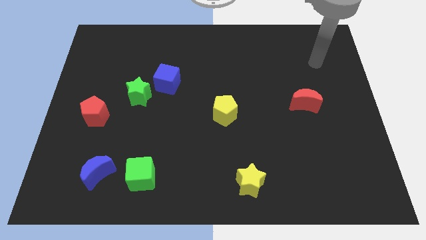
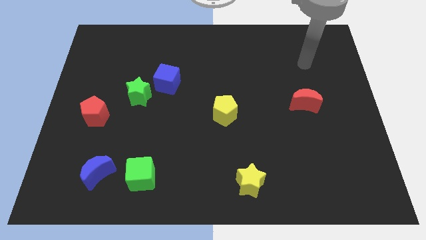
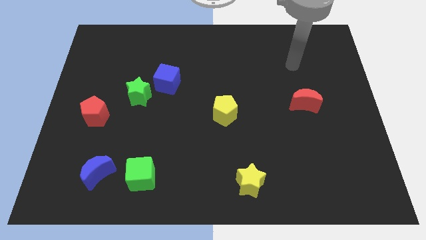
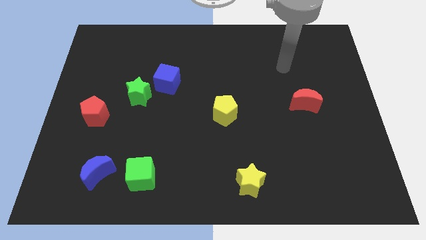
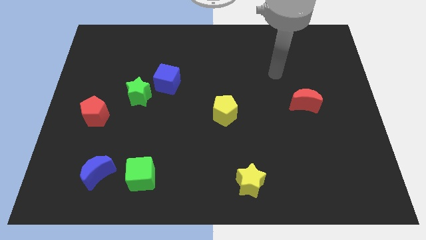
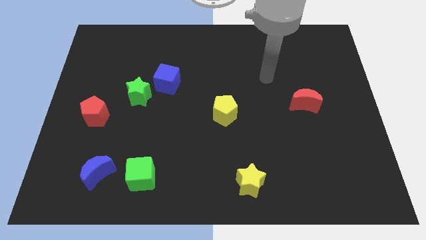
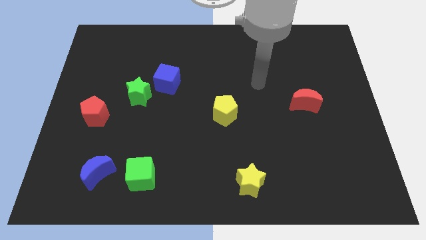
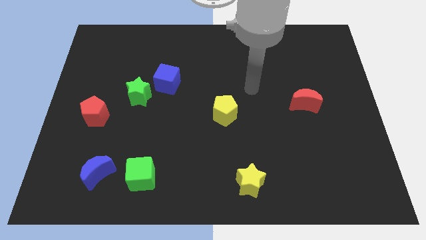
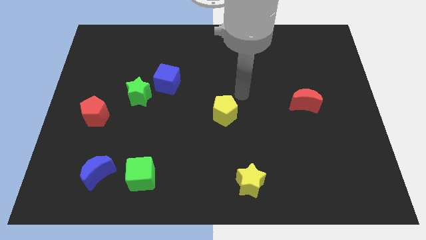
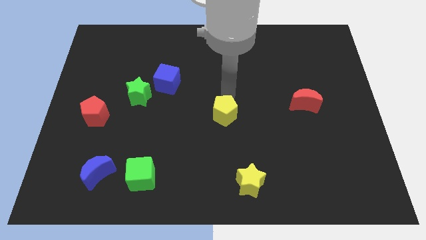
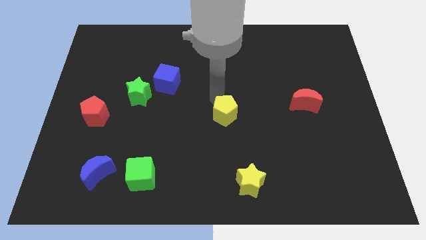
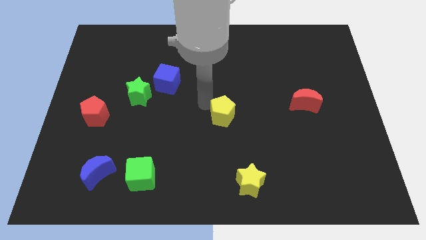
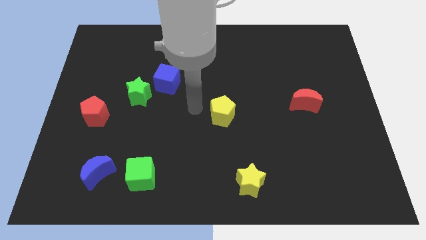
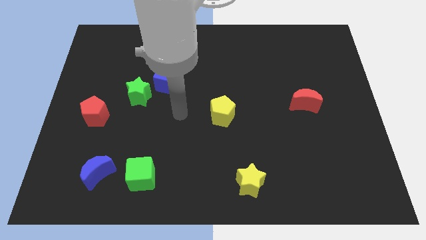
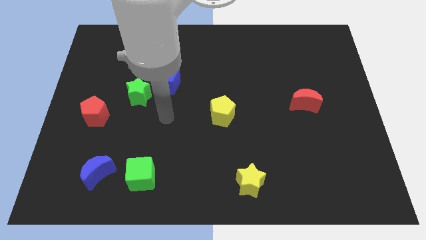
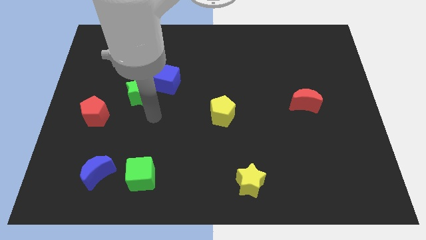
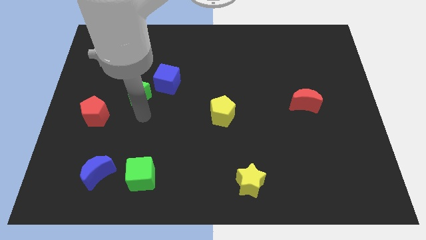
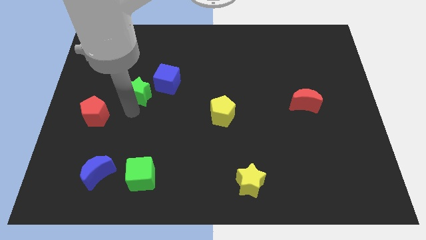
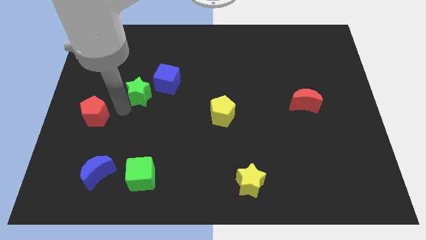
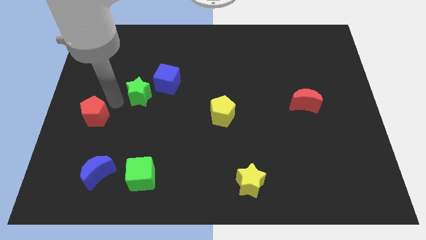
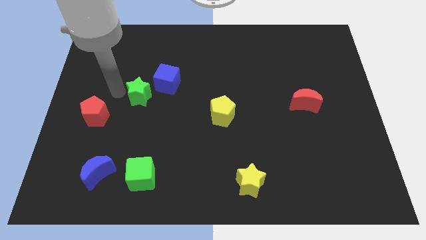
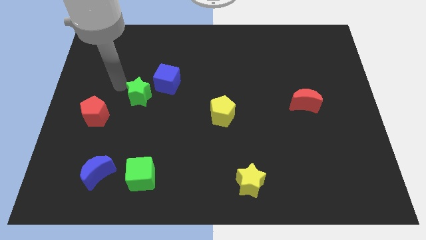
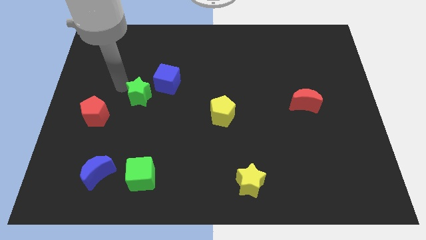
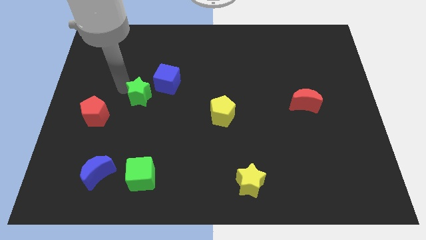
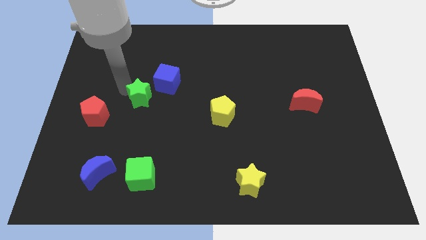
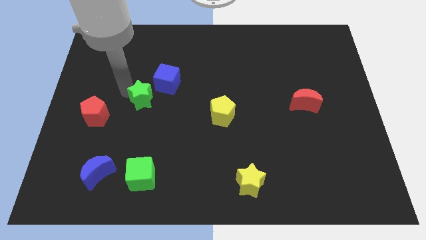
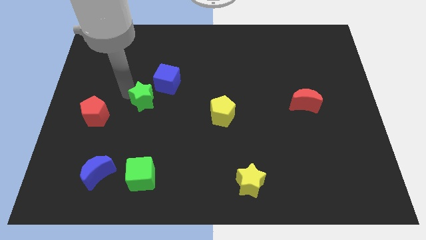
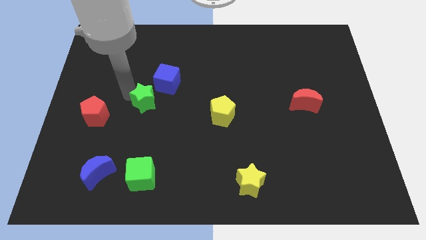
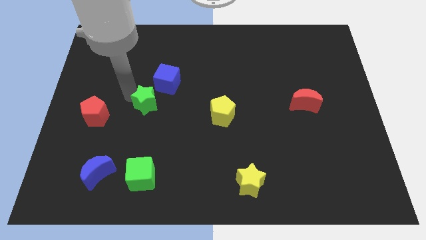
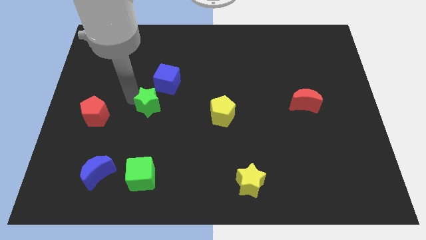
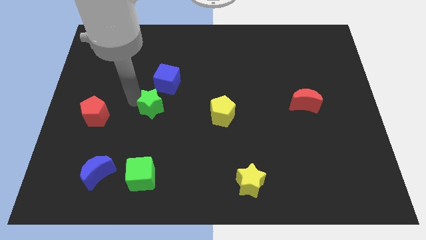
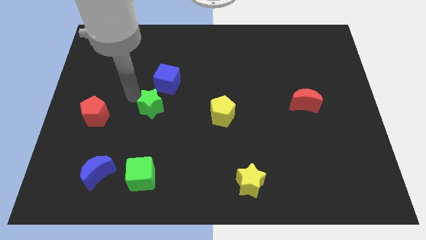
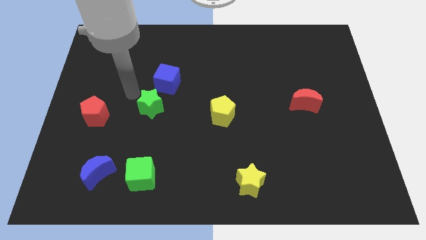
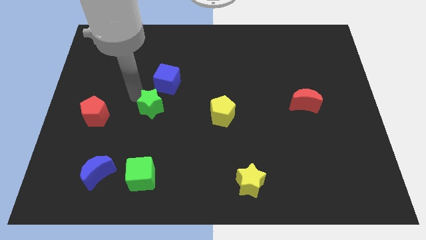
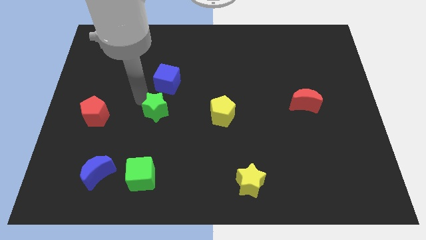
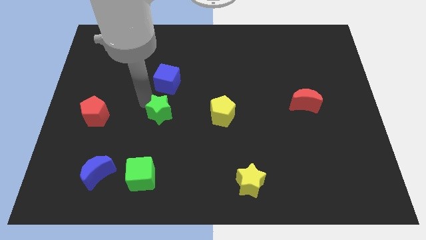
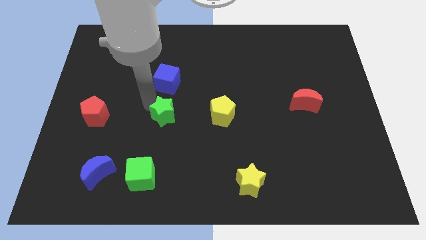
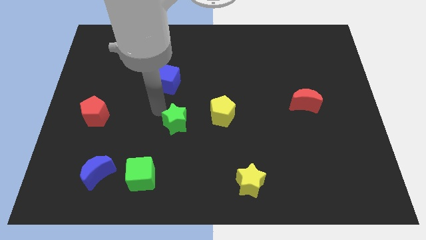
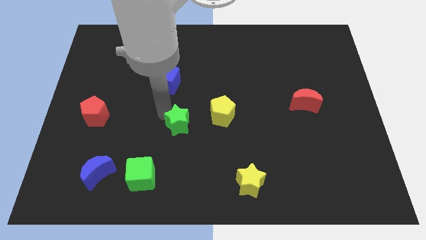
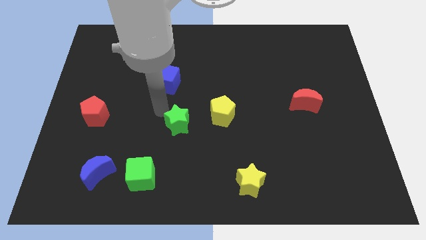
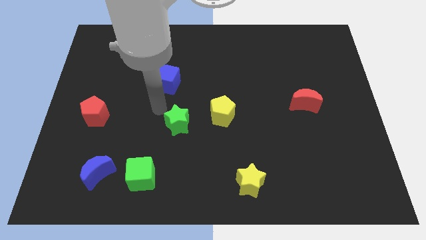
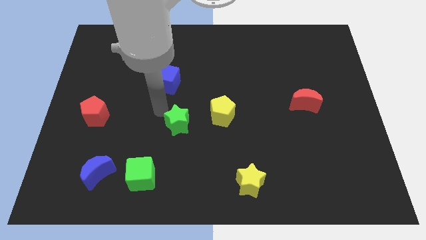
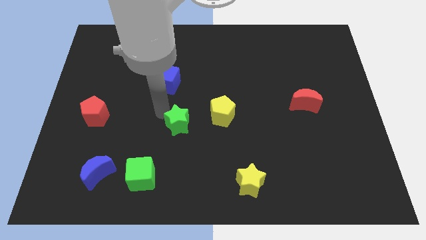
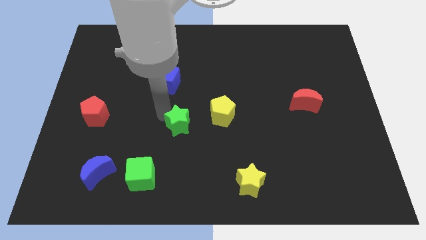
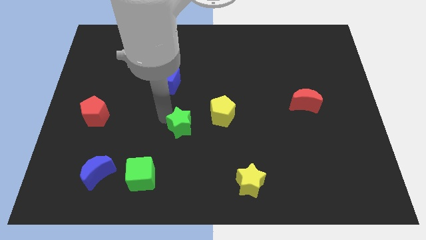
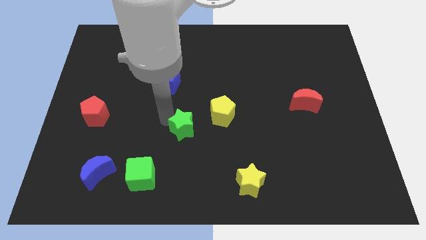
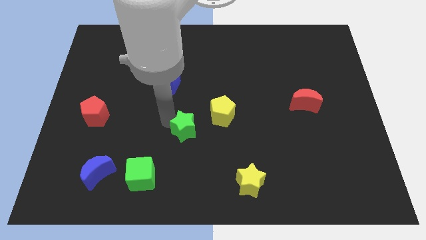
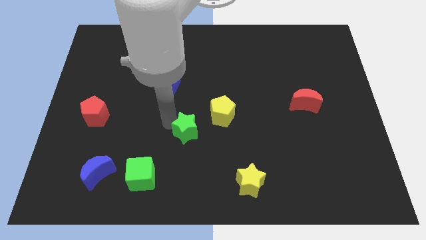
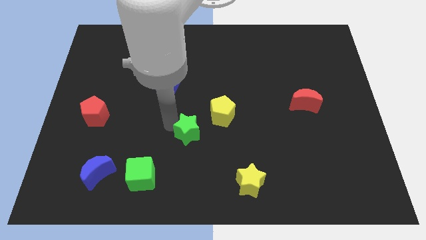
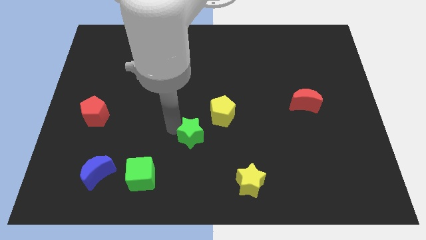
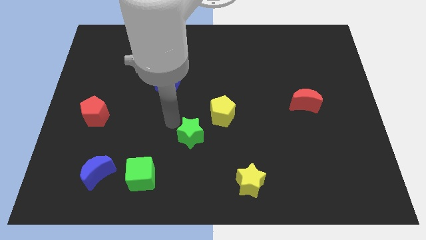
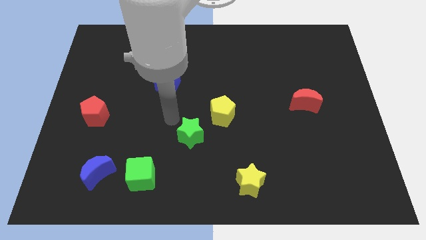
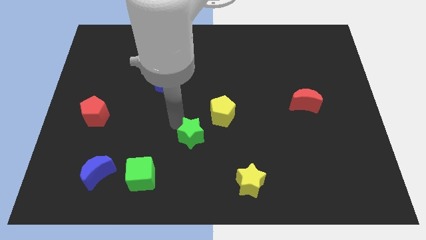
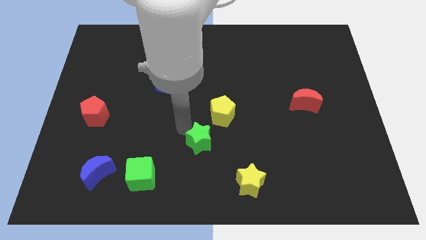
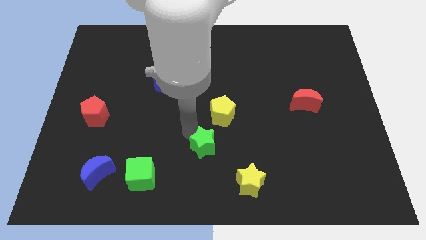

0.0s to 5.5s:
move the green star to the top left side of the yellow star

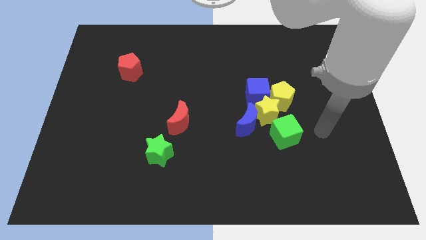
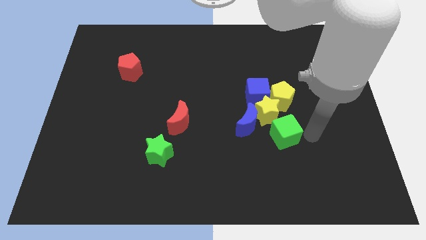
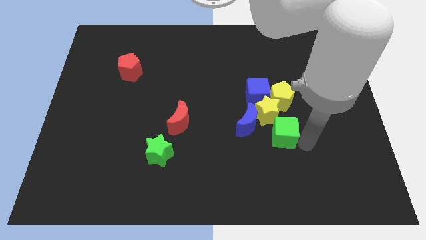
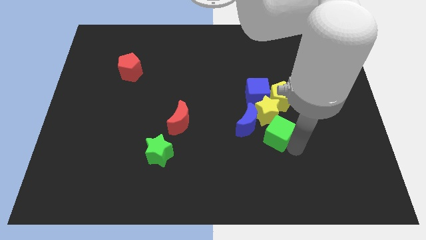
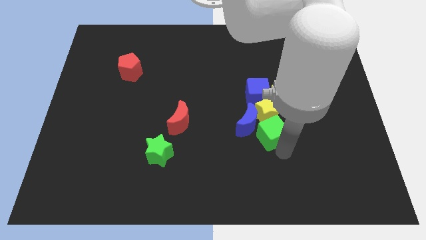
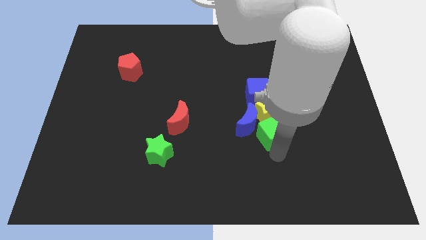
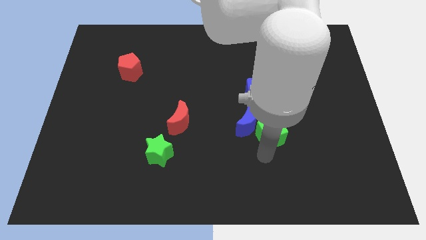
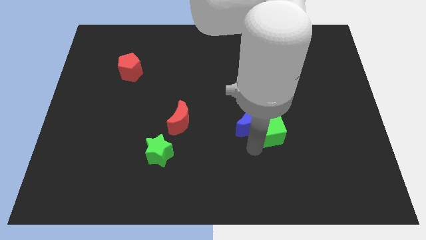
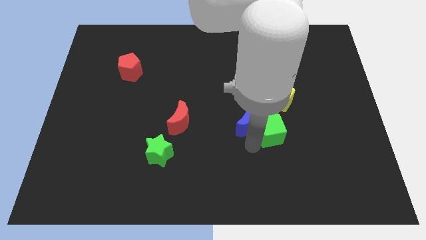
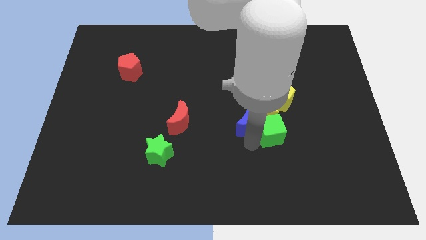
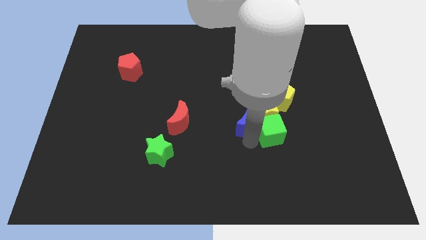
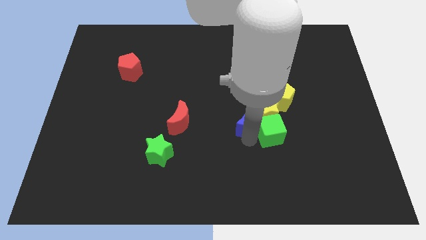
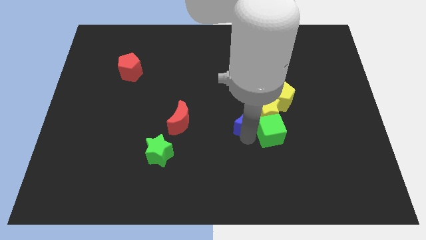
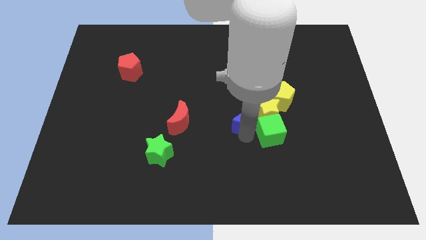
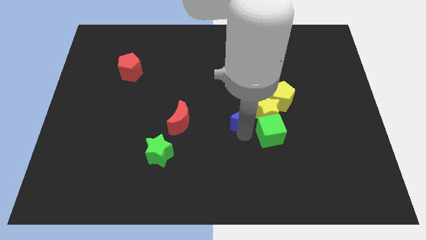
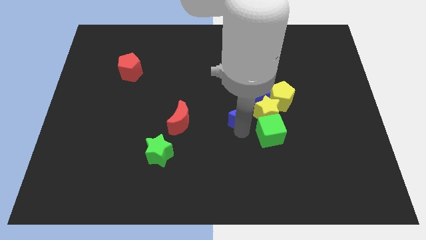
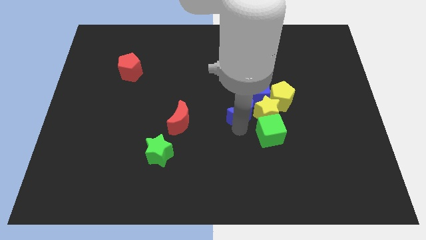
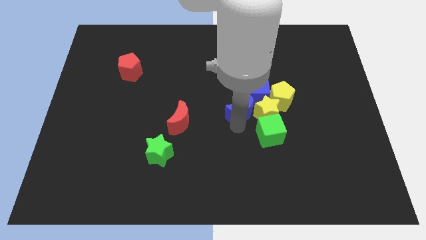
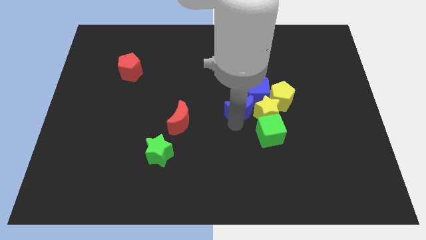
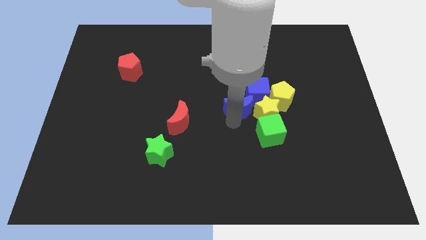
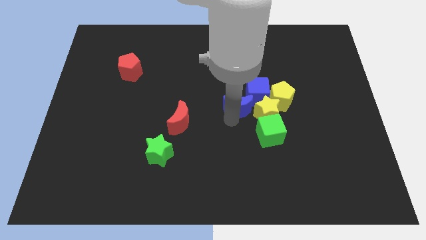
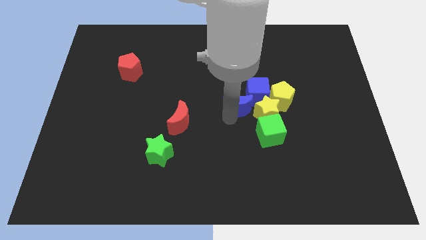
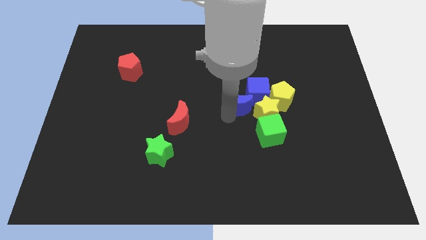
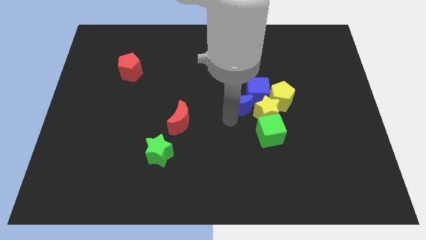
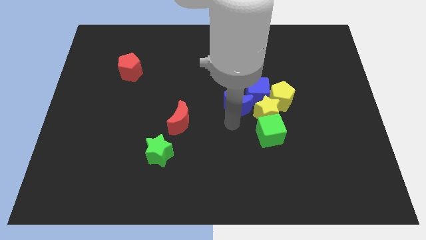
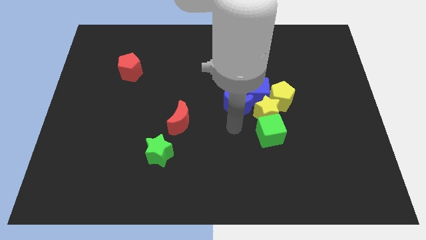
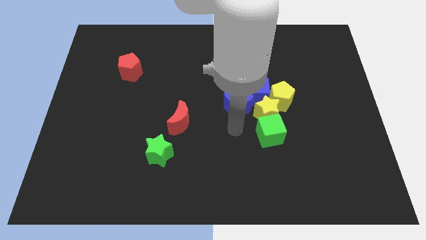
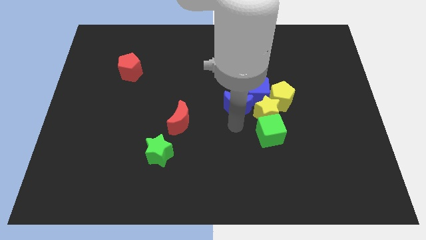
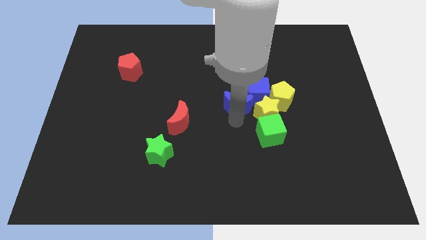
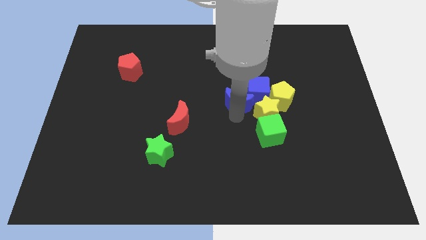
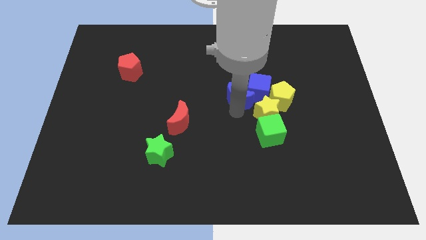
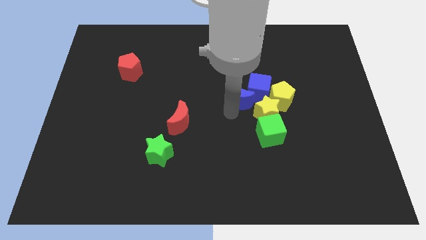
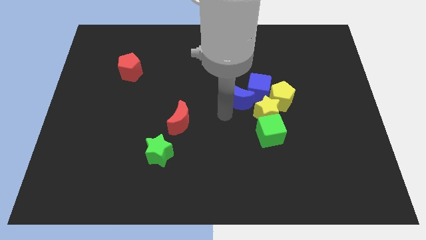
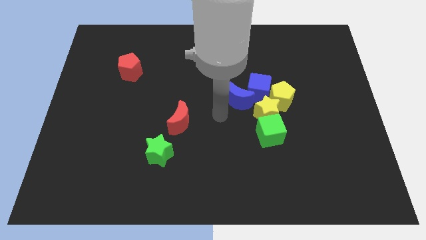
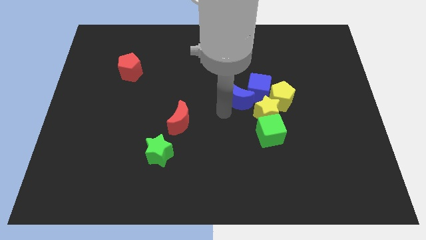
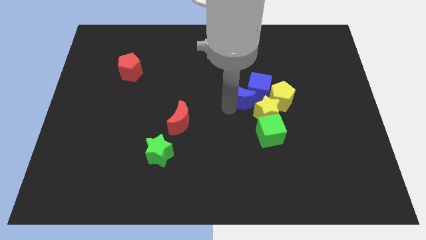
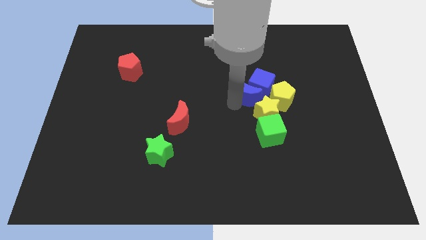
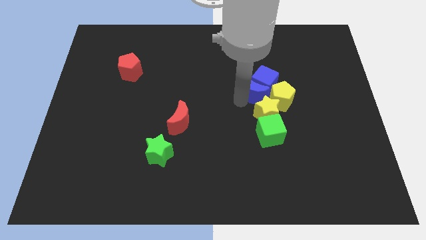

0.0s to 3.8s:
put the blue moon to the top left of the yellow pentagon
